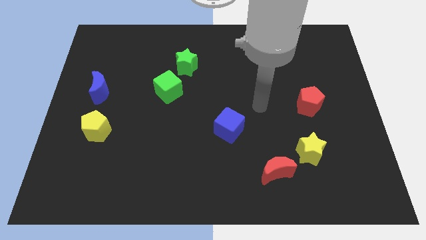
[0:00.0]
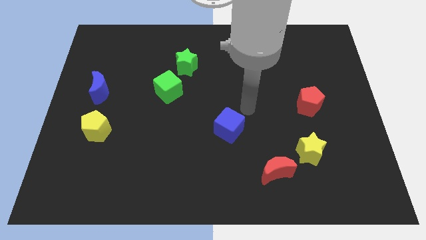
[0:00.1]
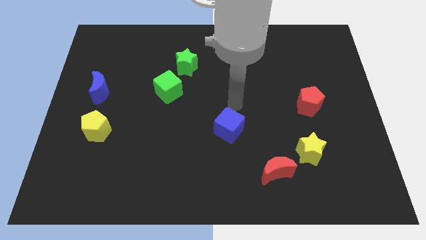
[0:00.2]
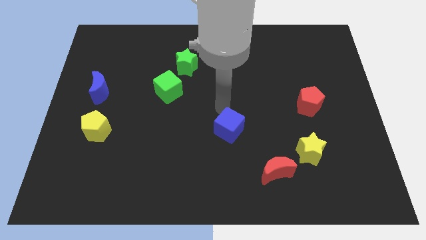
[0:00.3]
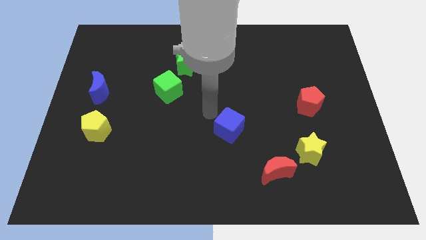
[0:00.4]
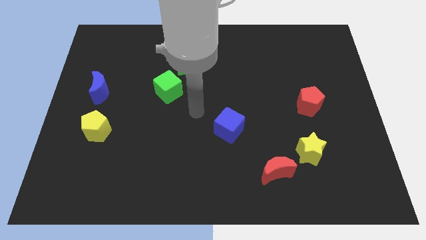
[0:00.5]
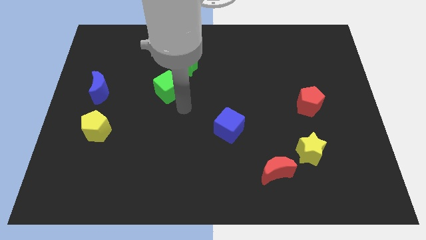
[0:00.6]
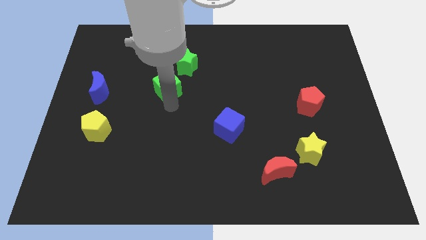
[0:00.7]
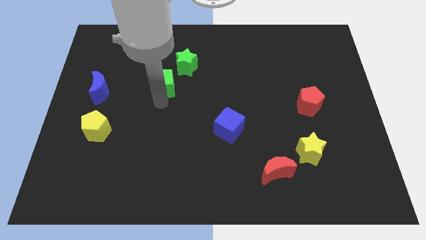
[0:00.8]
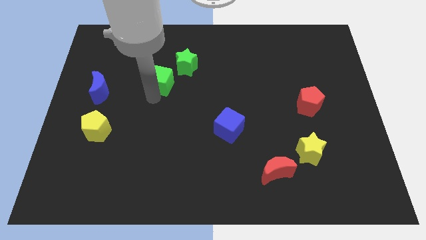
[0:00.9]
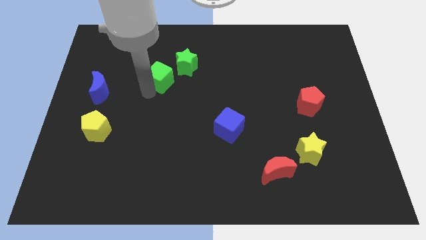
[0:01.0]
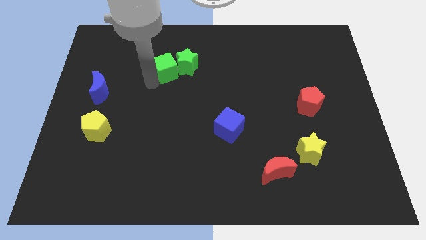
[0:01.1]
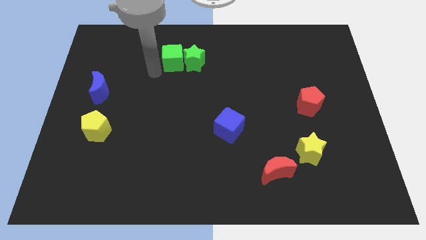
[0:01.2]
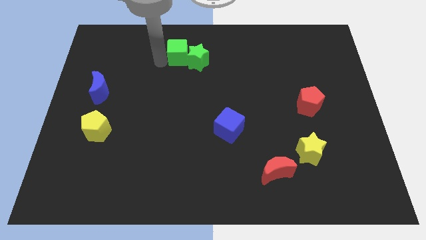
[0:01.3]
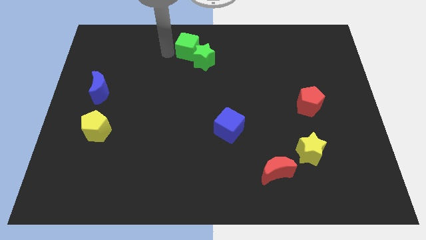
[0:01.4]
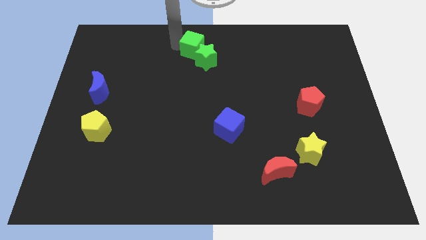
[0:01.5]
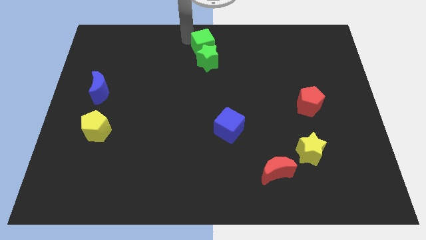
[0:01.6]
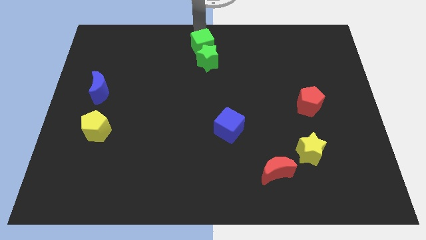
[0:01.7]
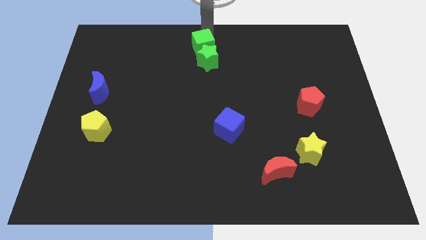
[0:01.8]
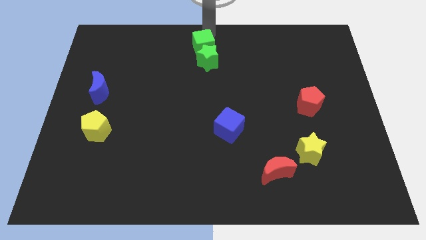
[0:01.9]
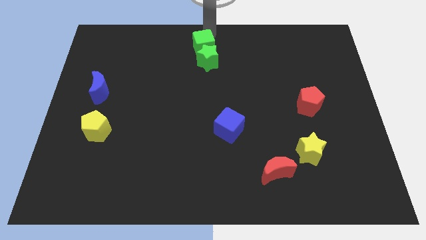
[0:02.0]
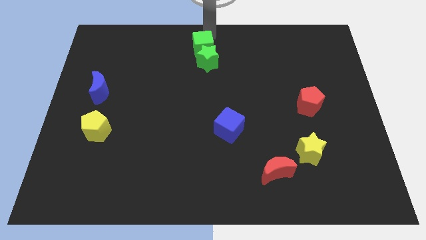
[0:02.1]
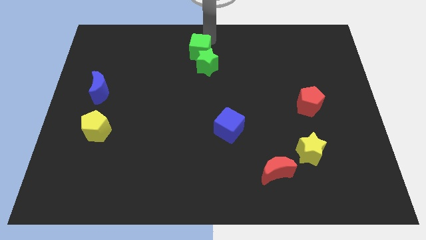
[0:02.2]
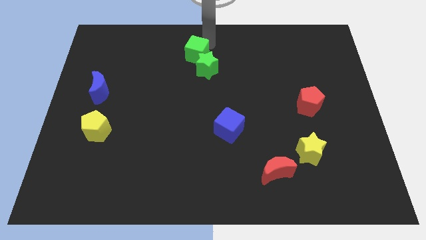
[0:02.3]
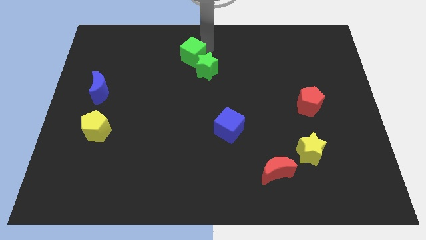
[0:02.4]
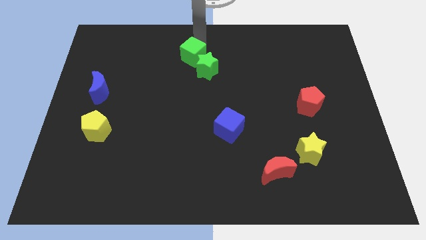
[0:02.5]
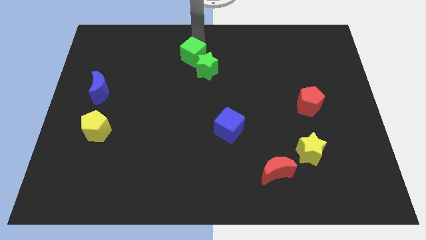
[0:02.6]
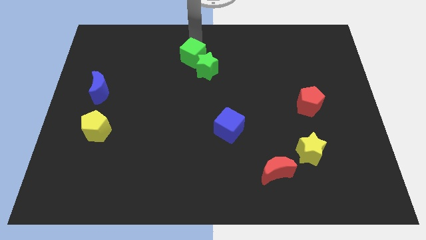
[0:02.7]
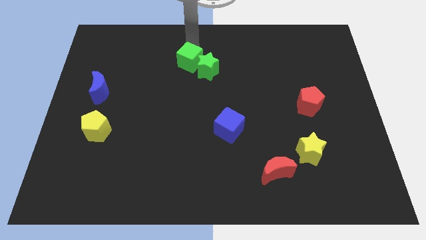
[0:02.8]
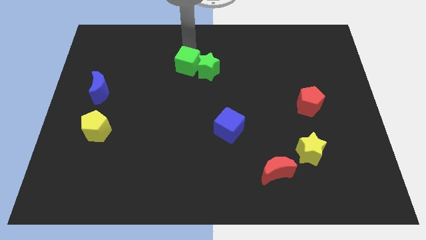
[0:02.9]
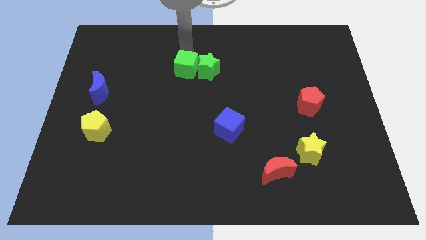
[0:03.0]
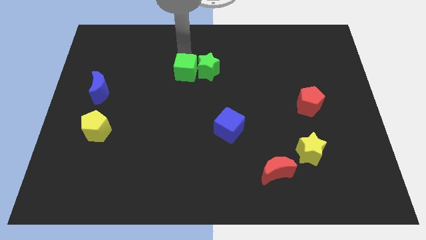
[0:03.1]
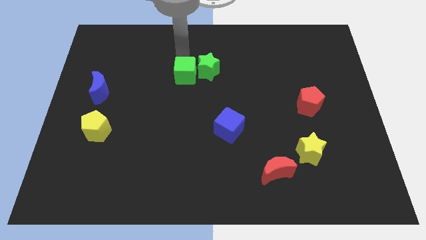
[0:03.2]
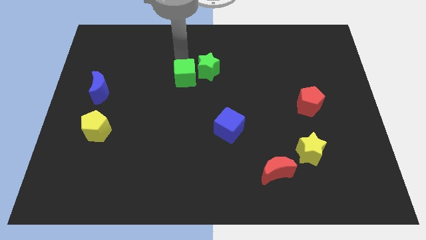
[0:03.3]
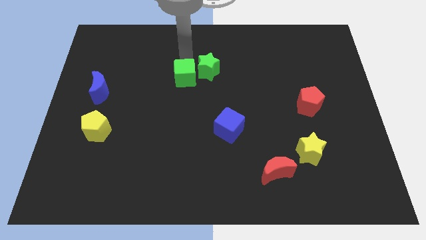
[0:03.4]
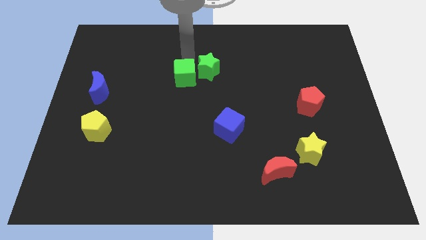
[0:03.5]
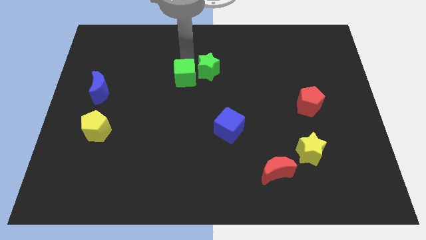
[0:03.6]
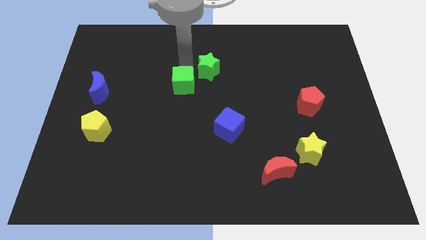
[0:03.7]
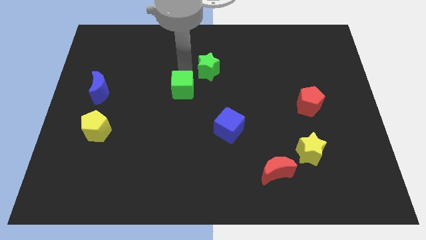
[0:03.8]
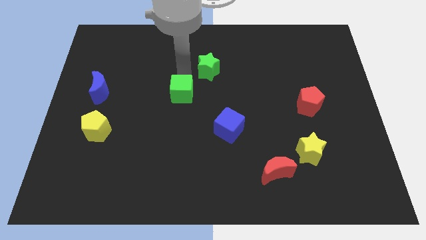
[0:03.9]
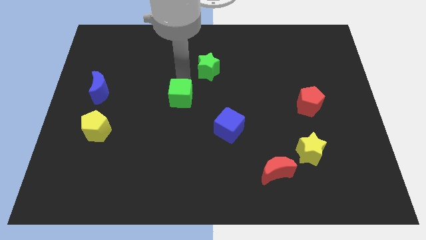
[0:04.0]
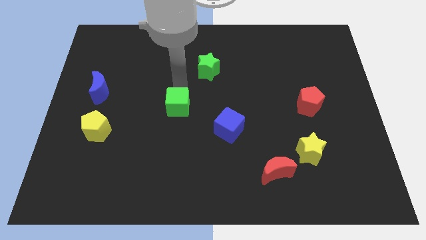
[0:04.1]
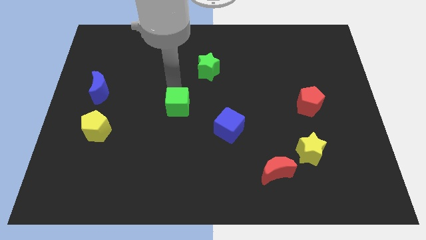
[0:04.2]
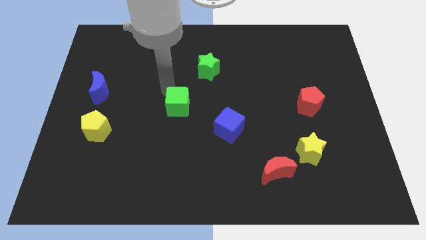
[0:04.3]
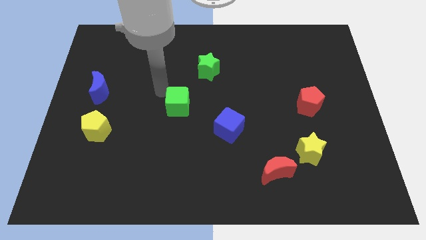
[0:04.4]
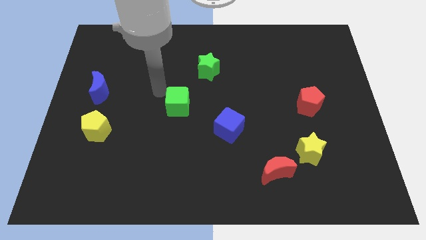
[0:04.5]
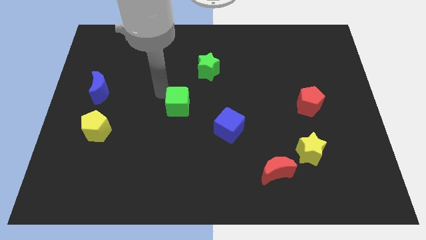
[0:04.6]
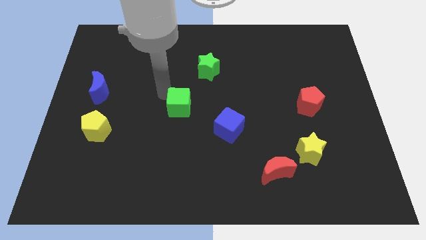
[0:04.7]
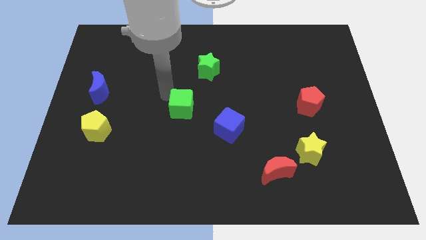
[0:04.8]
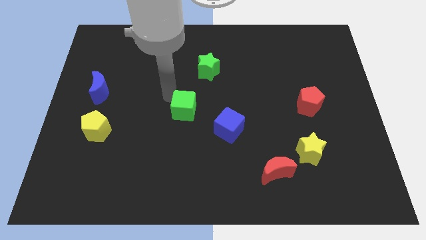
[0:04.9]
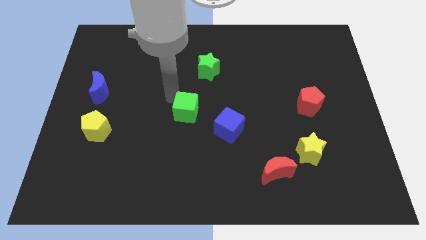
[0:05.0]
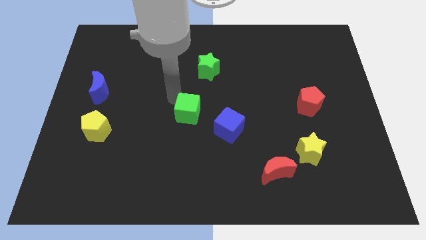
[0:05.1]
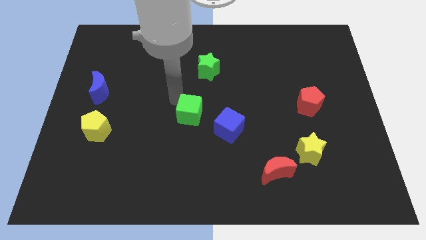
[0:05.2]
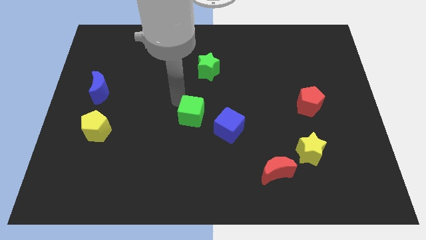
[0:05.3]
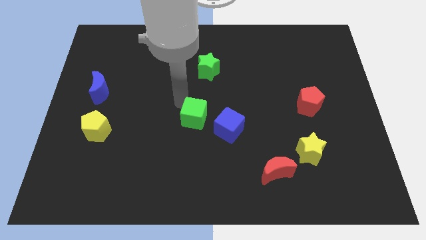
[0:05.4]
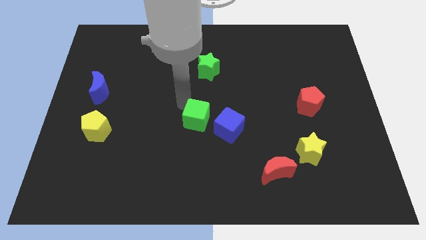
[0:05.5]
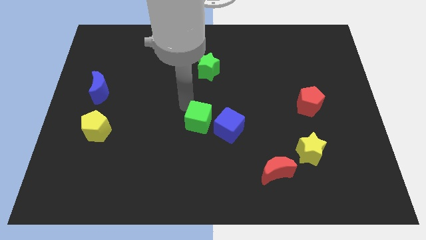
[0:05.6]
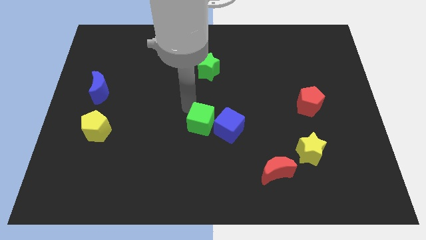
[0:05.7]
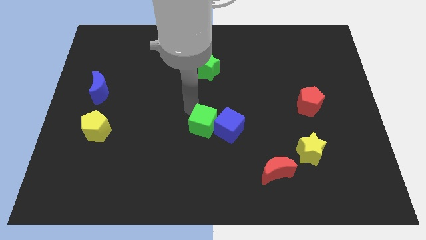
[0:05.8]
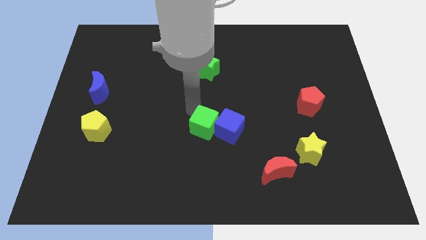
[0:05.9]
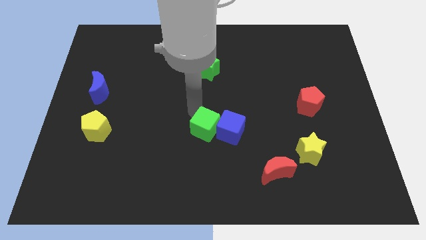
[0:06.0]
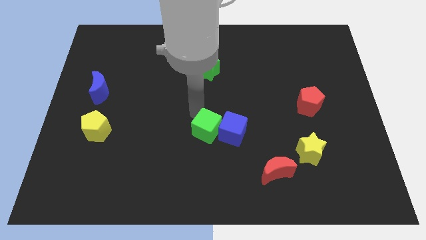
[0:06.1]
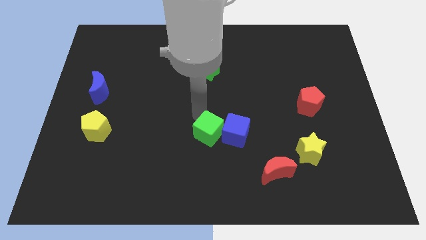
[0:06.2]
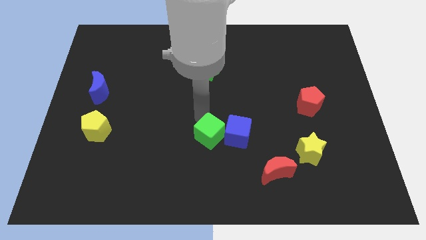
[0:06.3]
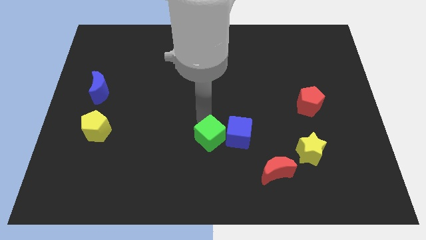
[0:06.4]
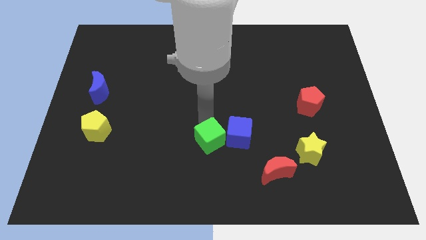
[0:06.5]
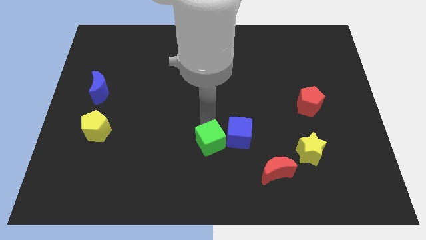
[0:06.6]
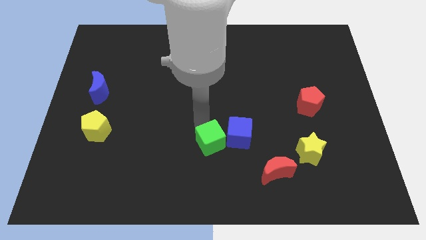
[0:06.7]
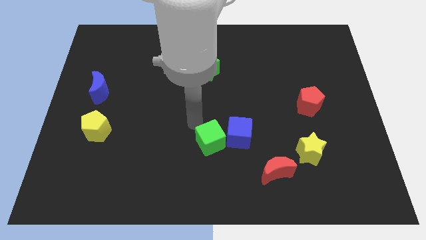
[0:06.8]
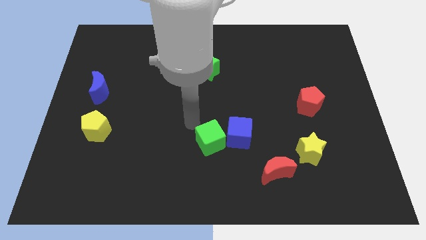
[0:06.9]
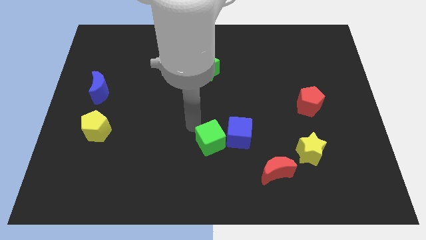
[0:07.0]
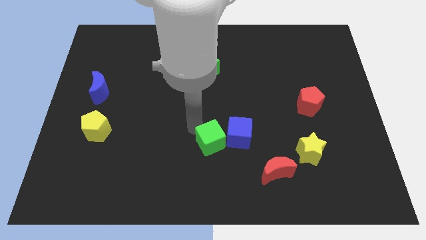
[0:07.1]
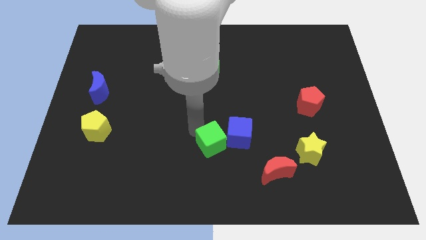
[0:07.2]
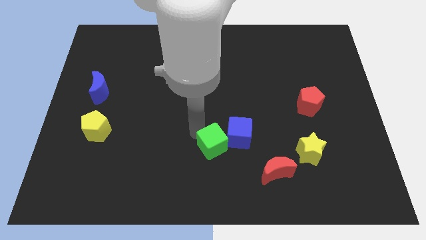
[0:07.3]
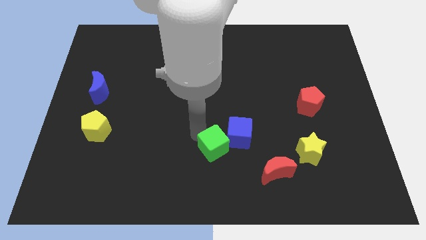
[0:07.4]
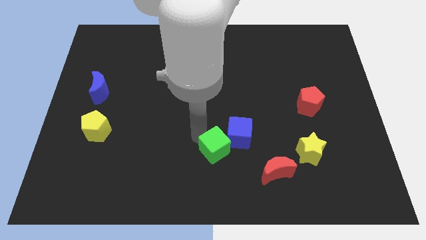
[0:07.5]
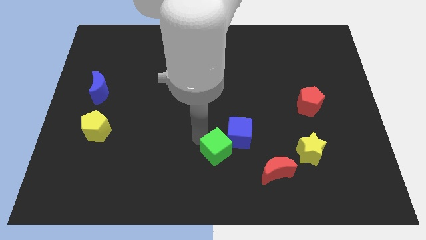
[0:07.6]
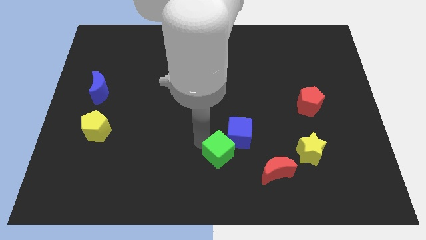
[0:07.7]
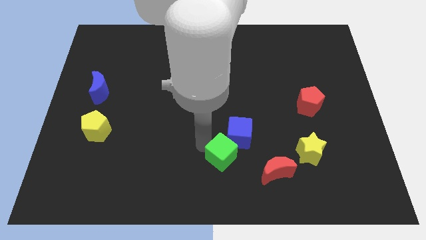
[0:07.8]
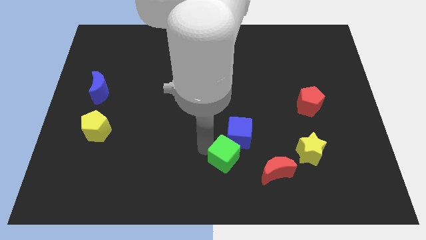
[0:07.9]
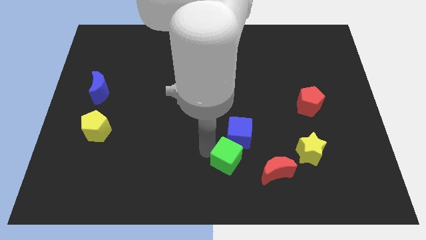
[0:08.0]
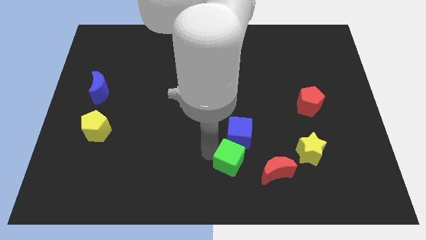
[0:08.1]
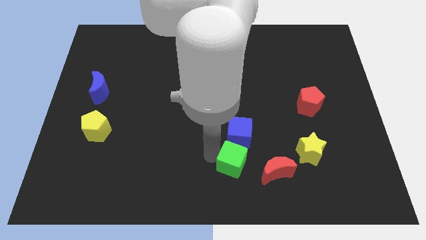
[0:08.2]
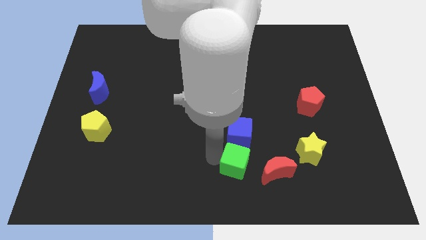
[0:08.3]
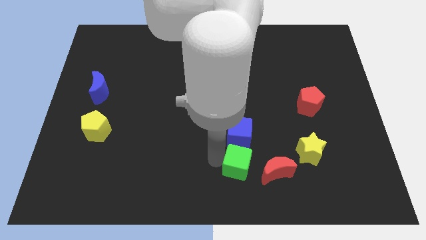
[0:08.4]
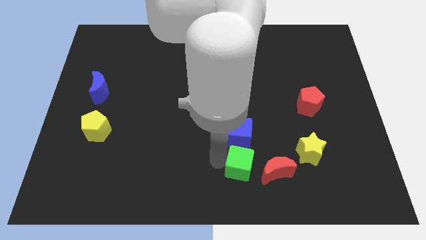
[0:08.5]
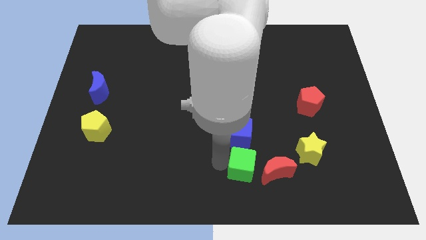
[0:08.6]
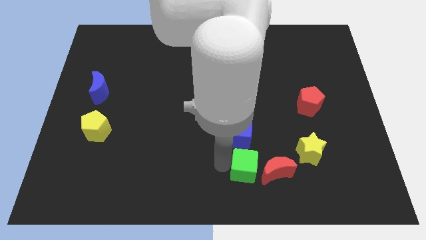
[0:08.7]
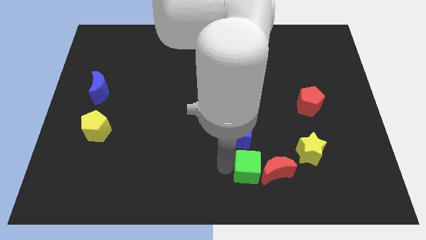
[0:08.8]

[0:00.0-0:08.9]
slide the green cube towards the red moon
